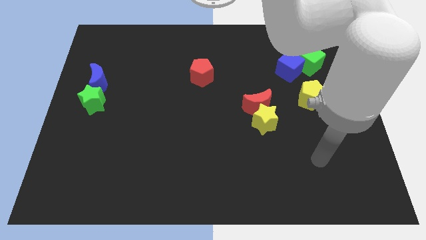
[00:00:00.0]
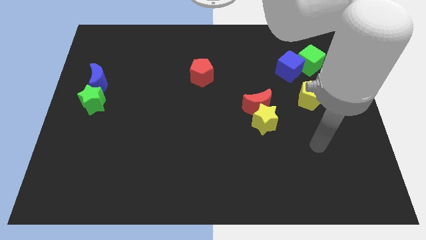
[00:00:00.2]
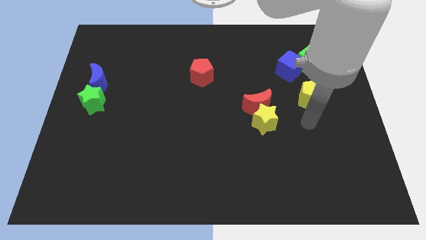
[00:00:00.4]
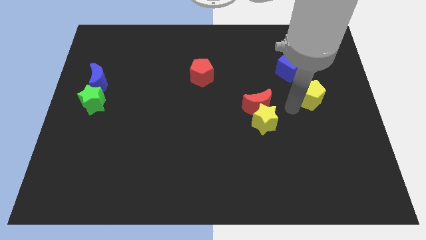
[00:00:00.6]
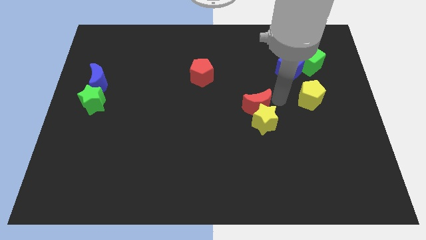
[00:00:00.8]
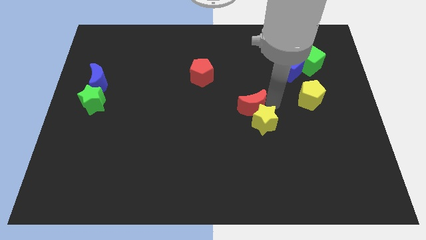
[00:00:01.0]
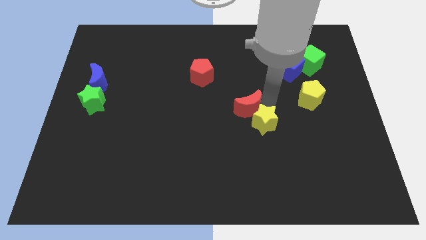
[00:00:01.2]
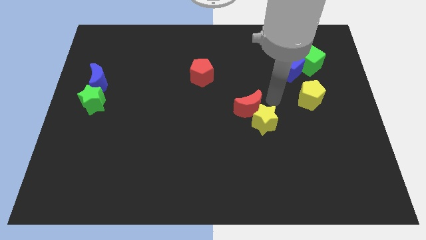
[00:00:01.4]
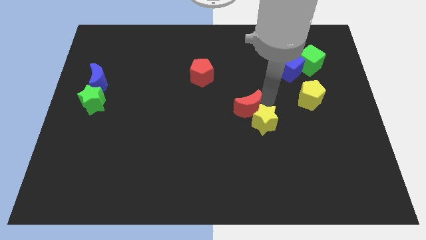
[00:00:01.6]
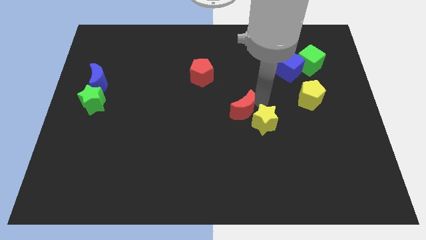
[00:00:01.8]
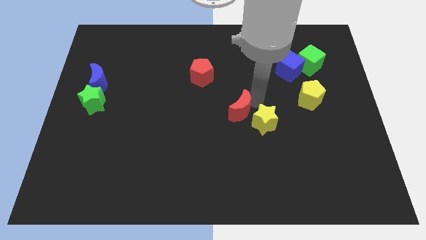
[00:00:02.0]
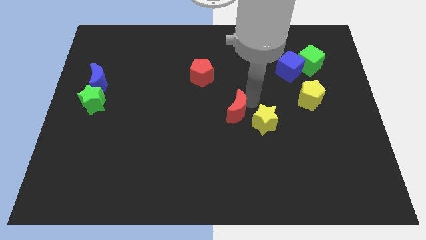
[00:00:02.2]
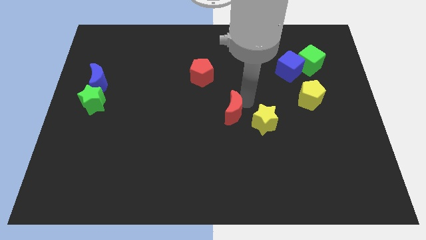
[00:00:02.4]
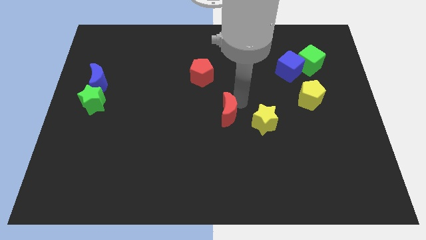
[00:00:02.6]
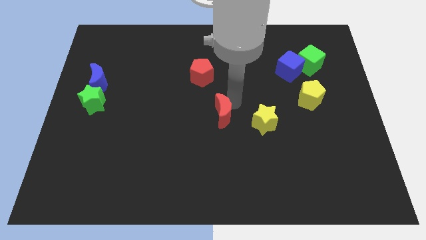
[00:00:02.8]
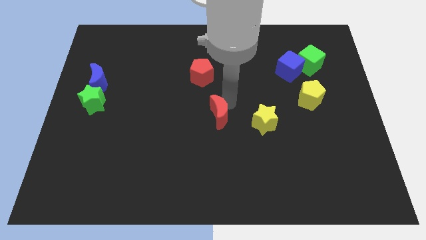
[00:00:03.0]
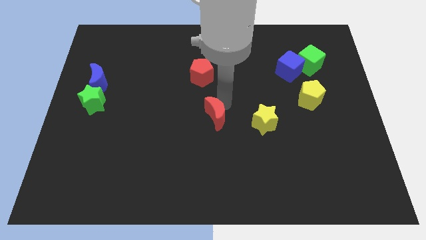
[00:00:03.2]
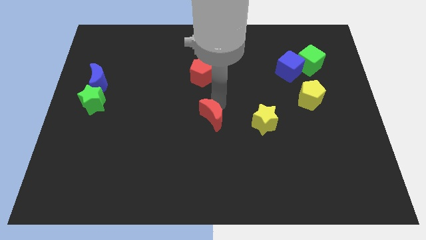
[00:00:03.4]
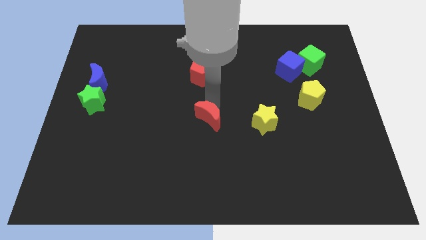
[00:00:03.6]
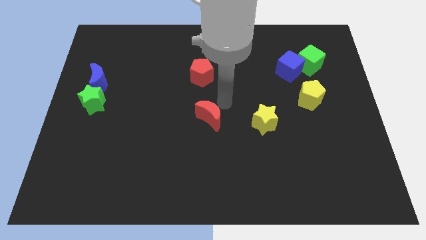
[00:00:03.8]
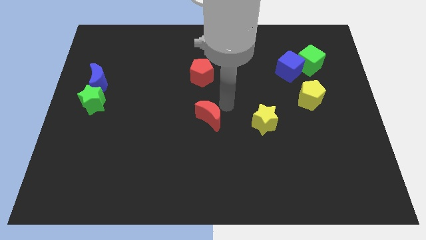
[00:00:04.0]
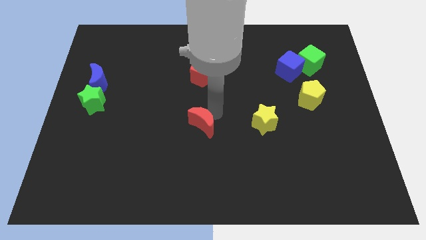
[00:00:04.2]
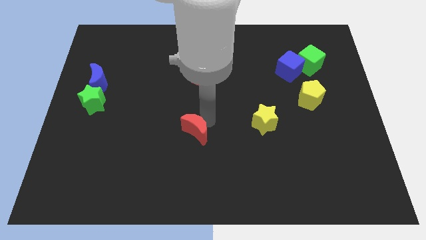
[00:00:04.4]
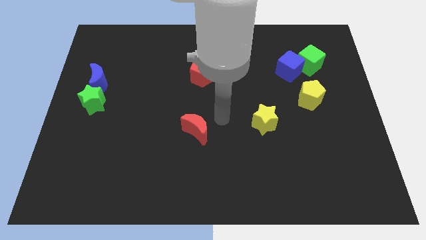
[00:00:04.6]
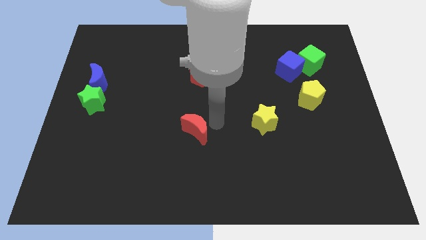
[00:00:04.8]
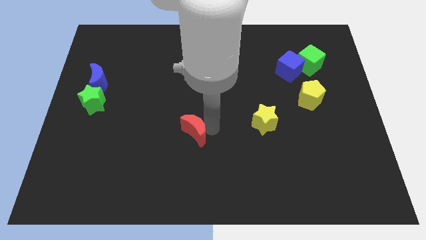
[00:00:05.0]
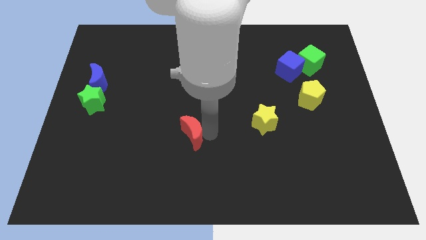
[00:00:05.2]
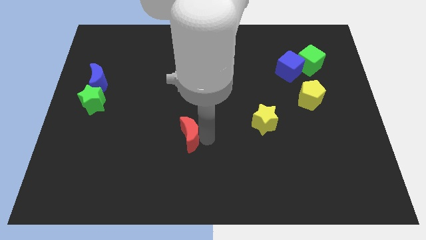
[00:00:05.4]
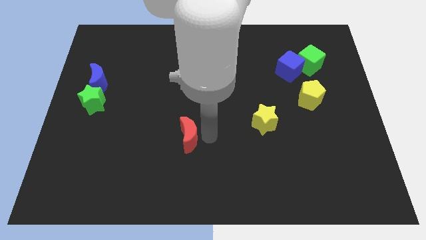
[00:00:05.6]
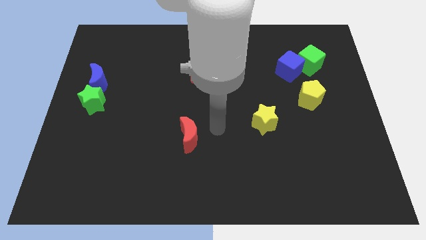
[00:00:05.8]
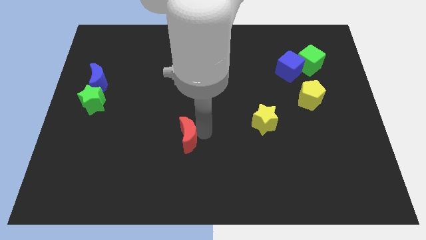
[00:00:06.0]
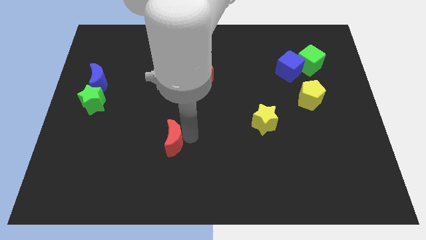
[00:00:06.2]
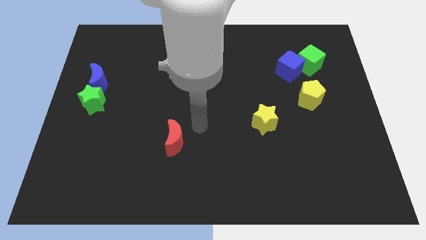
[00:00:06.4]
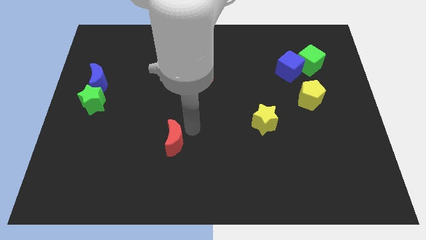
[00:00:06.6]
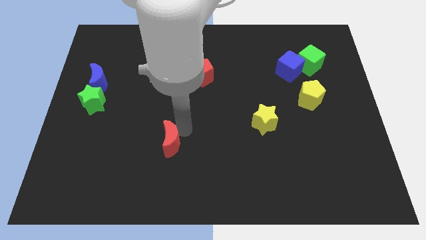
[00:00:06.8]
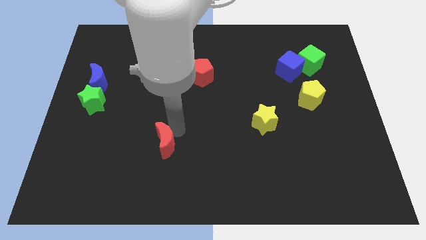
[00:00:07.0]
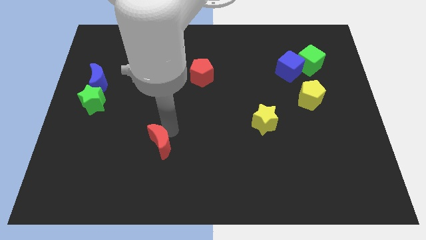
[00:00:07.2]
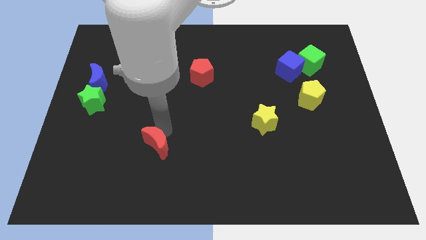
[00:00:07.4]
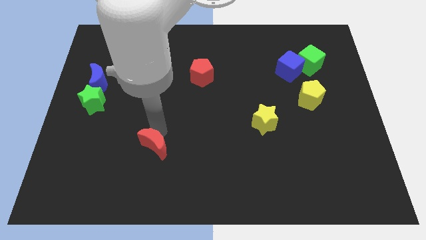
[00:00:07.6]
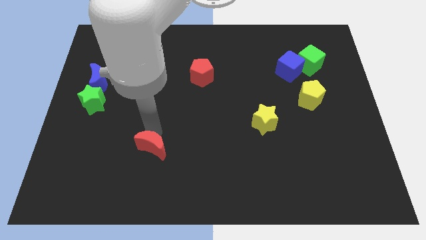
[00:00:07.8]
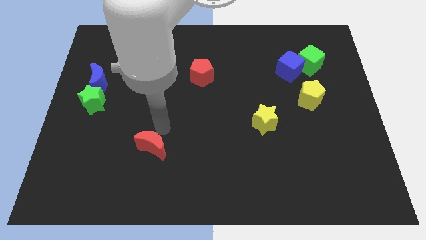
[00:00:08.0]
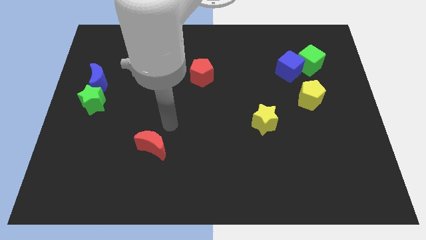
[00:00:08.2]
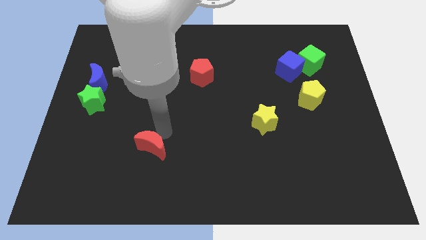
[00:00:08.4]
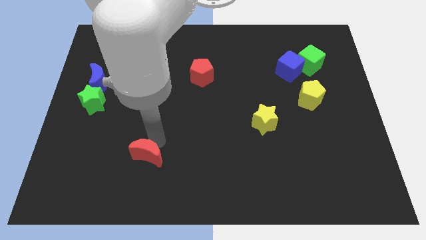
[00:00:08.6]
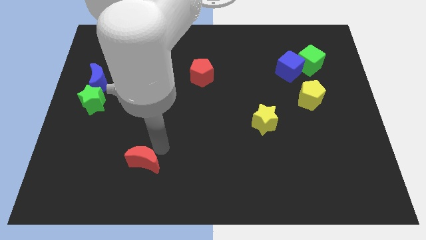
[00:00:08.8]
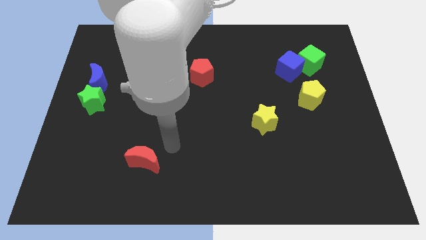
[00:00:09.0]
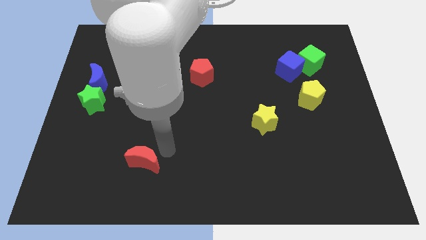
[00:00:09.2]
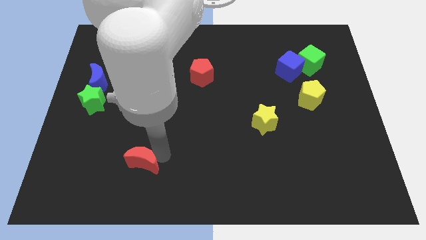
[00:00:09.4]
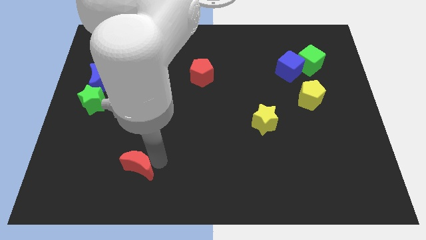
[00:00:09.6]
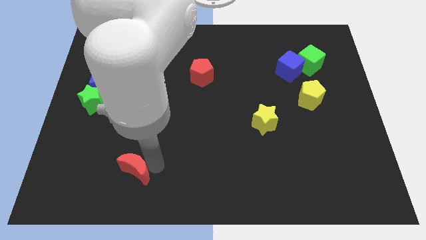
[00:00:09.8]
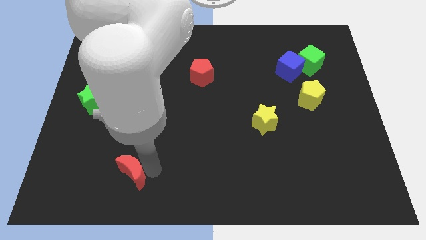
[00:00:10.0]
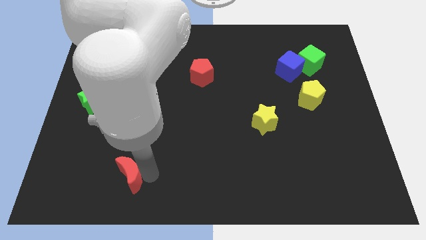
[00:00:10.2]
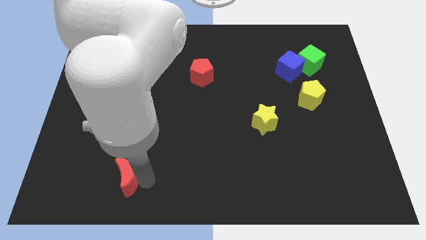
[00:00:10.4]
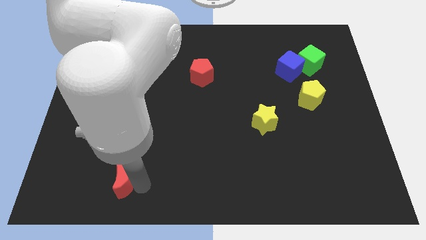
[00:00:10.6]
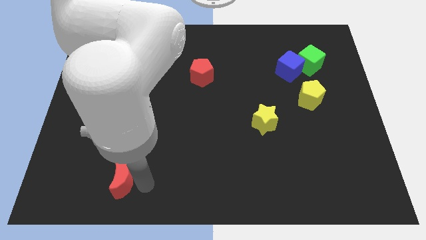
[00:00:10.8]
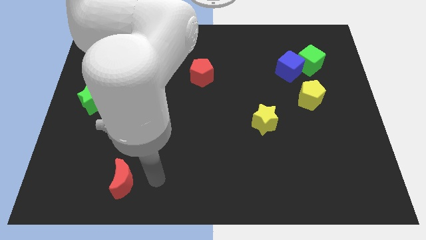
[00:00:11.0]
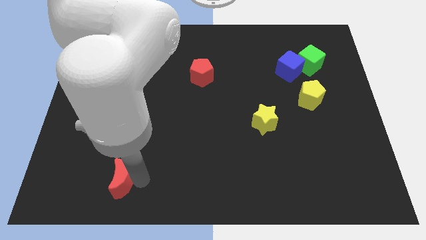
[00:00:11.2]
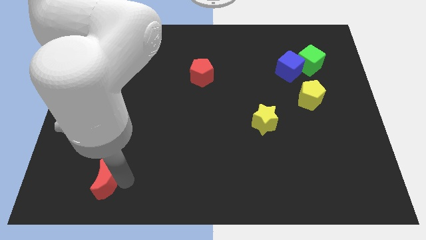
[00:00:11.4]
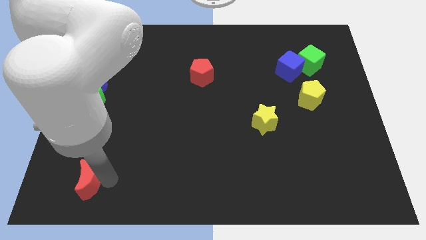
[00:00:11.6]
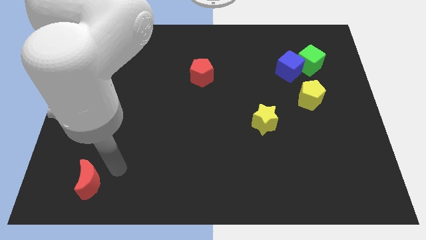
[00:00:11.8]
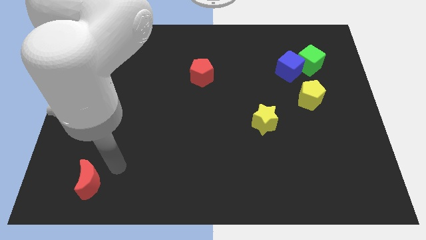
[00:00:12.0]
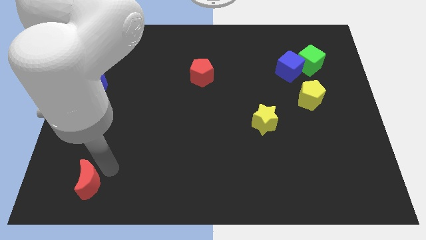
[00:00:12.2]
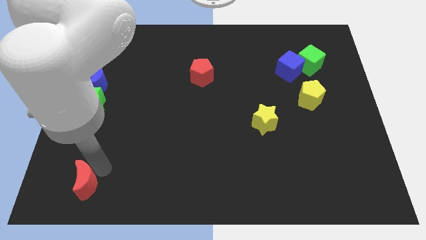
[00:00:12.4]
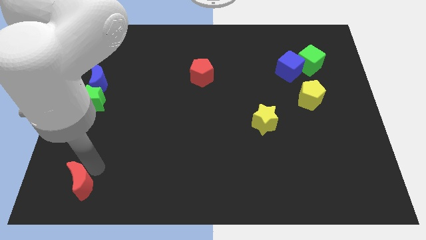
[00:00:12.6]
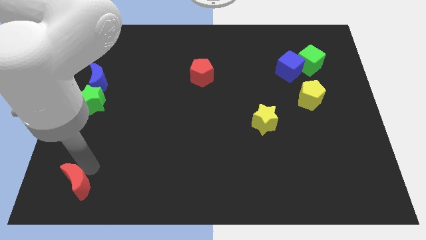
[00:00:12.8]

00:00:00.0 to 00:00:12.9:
push the red moon to the bottom left
